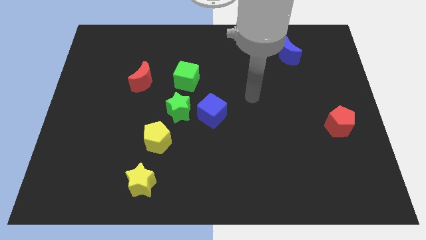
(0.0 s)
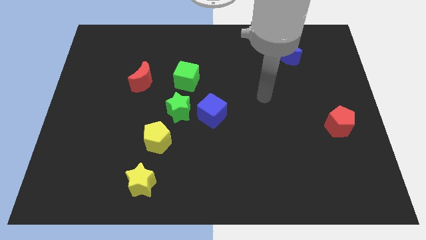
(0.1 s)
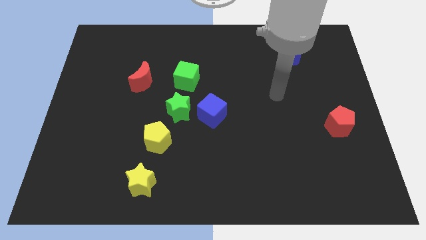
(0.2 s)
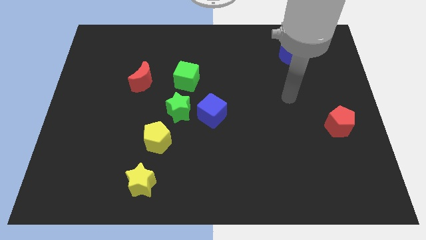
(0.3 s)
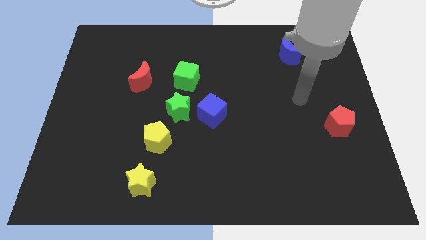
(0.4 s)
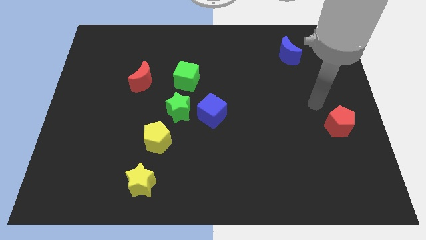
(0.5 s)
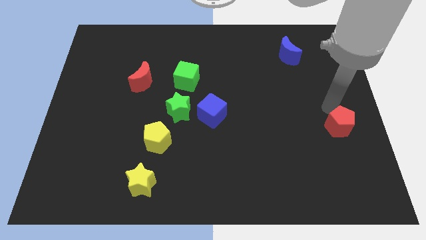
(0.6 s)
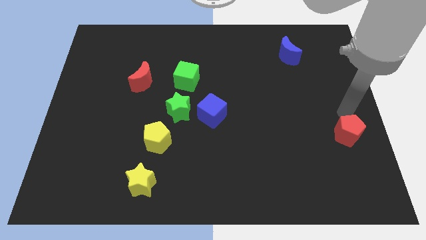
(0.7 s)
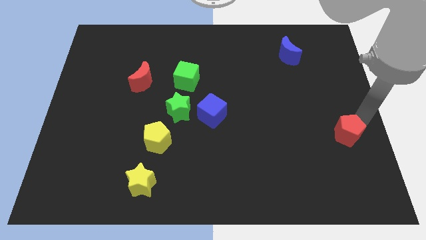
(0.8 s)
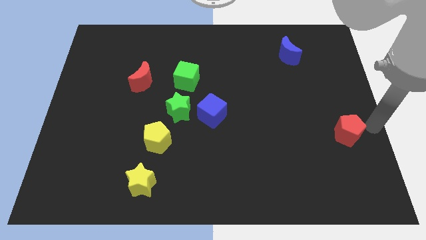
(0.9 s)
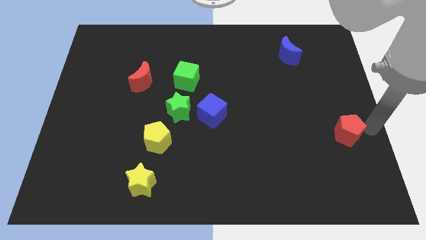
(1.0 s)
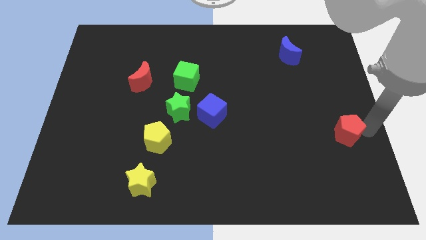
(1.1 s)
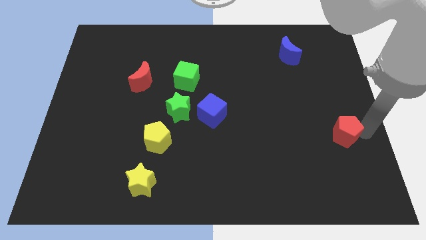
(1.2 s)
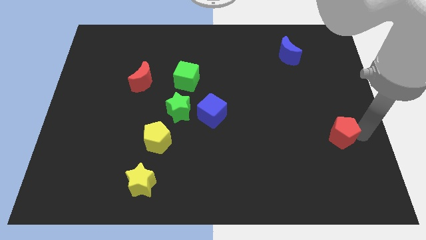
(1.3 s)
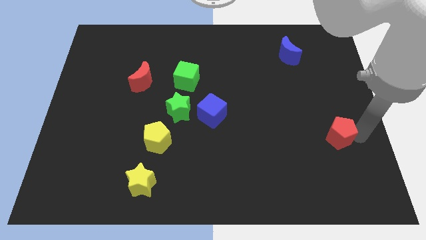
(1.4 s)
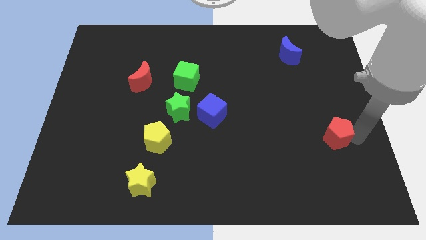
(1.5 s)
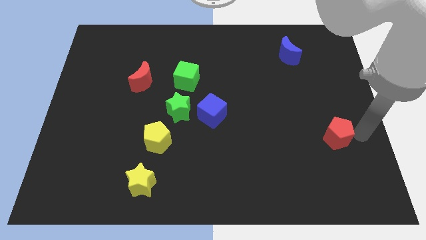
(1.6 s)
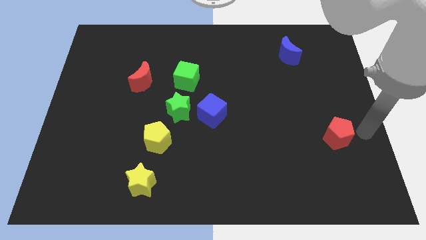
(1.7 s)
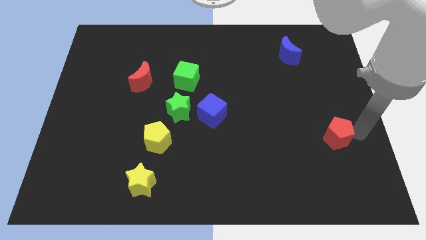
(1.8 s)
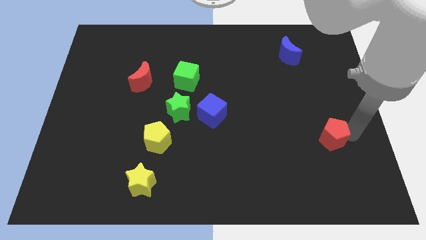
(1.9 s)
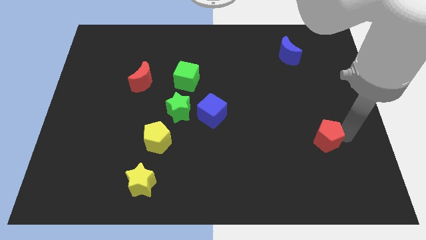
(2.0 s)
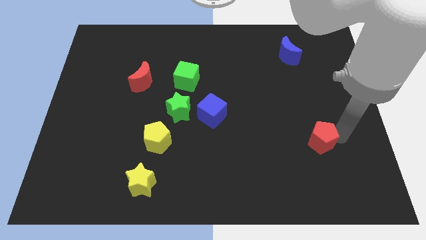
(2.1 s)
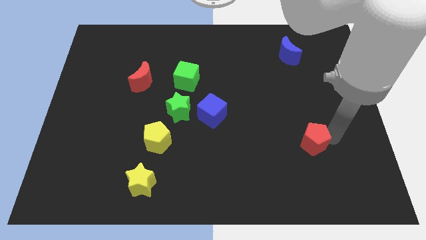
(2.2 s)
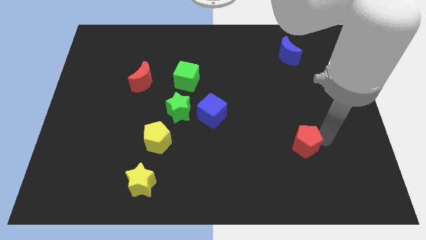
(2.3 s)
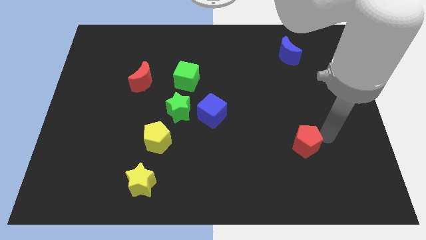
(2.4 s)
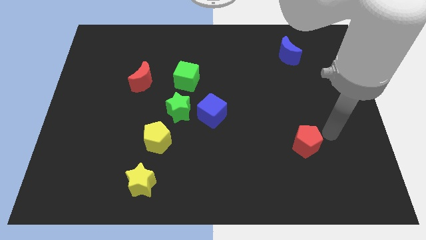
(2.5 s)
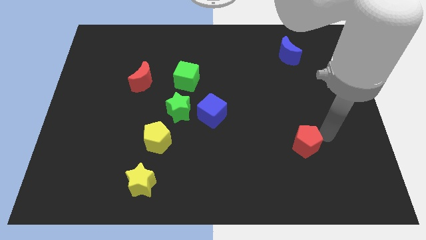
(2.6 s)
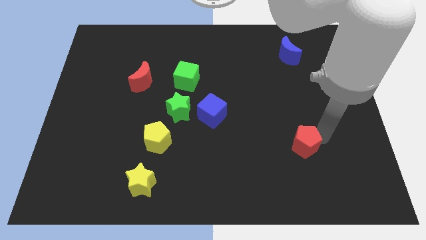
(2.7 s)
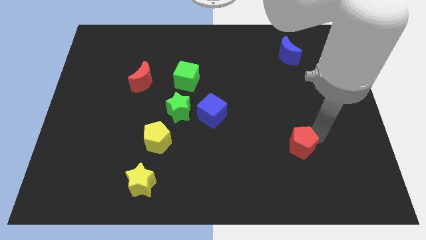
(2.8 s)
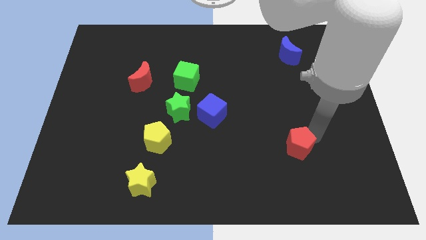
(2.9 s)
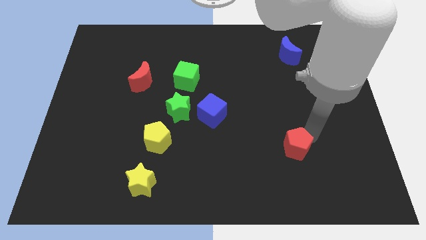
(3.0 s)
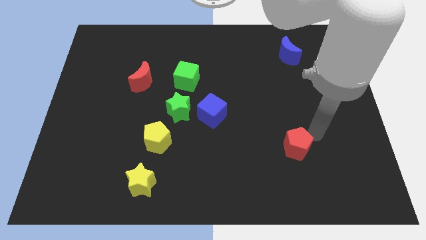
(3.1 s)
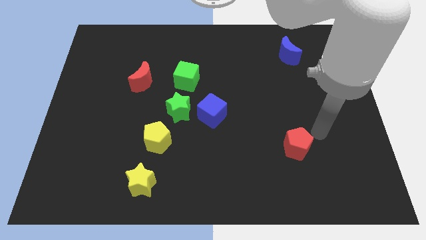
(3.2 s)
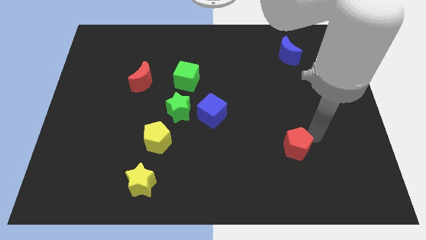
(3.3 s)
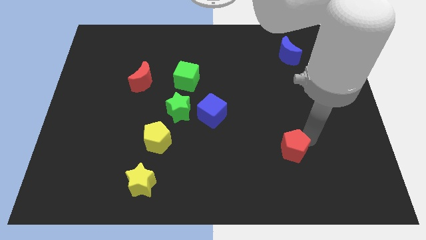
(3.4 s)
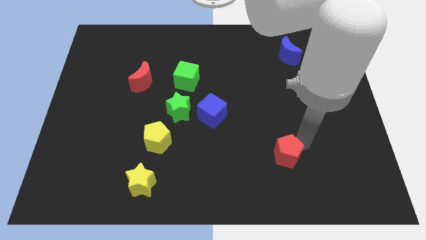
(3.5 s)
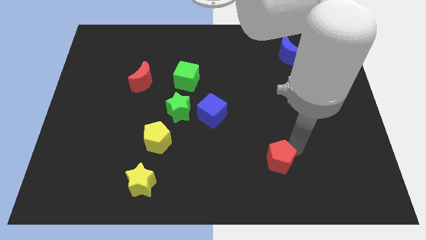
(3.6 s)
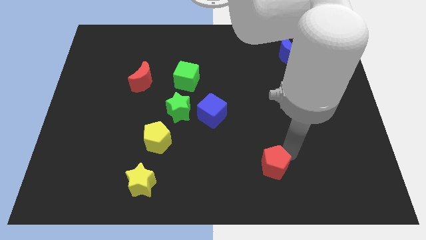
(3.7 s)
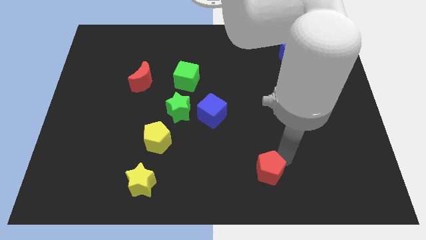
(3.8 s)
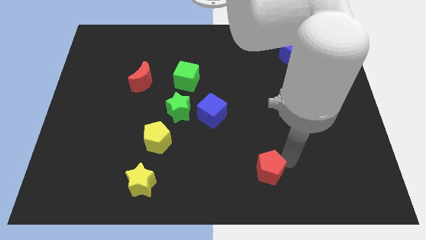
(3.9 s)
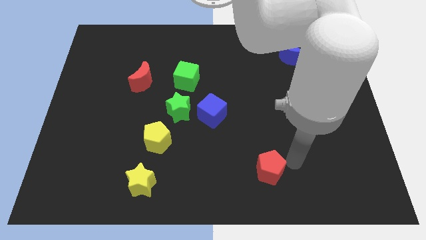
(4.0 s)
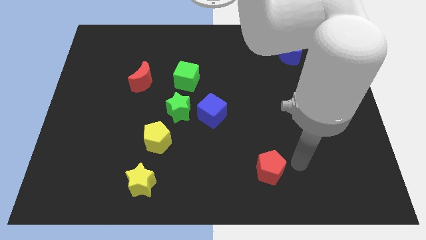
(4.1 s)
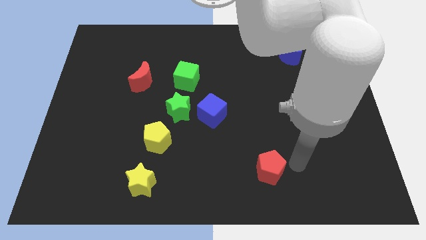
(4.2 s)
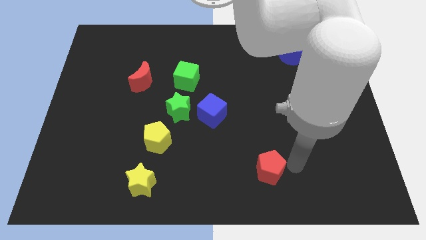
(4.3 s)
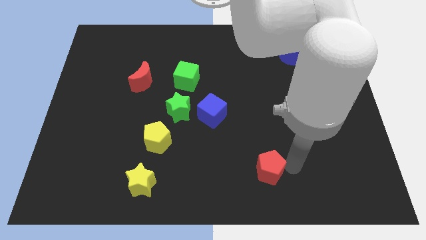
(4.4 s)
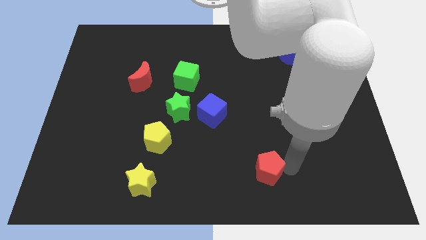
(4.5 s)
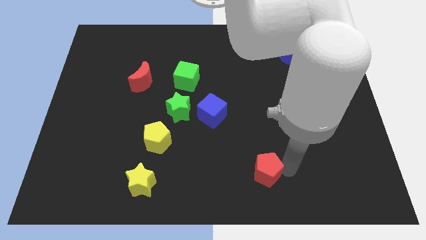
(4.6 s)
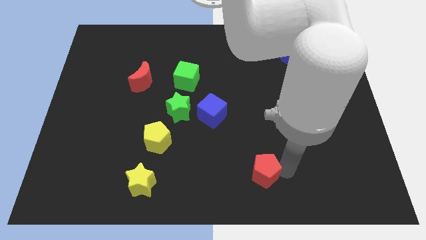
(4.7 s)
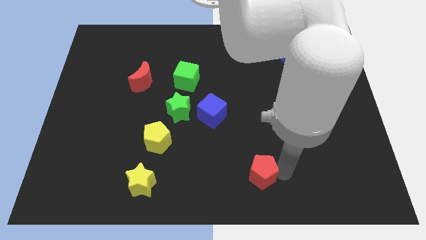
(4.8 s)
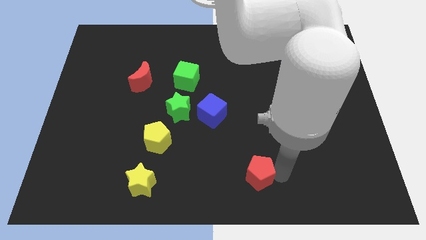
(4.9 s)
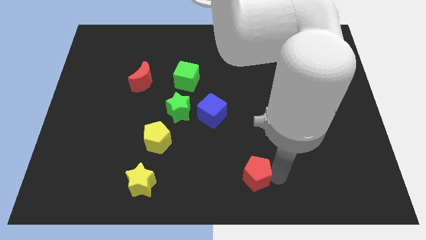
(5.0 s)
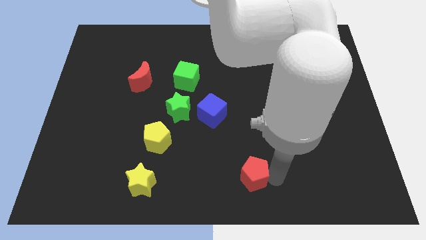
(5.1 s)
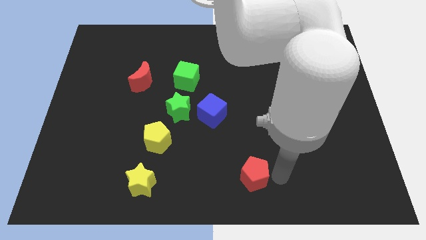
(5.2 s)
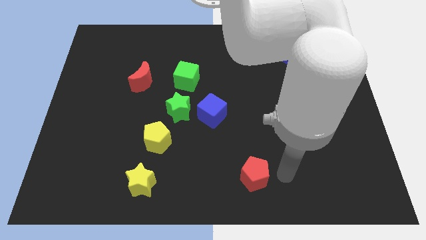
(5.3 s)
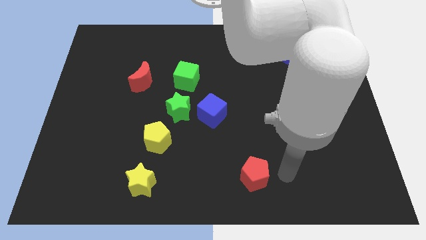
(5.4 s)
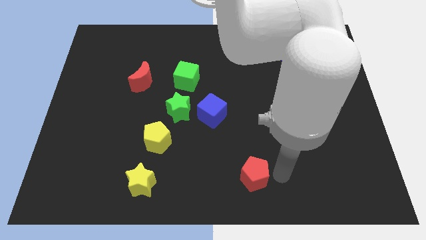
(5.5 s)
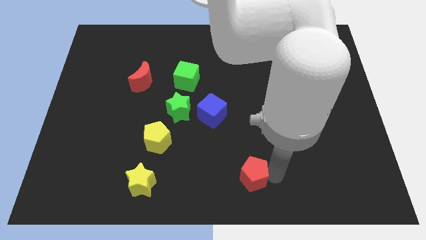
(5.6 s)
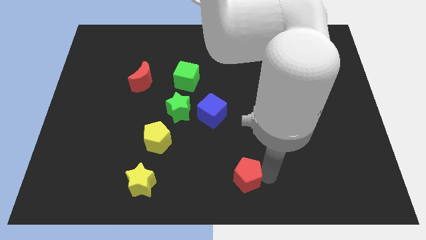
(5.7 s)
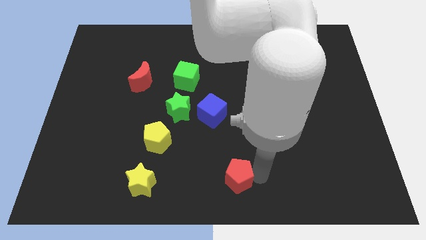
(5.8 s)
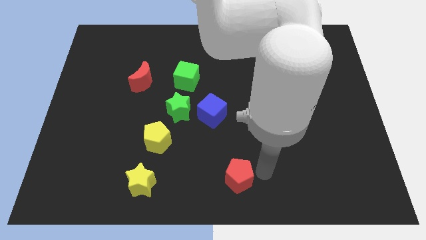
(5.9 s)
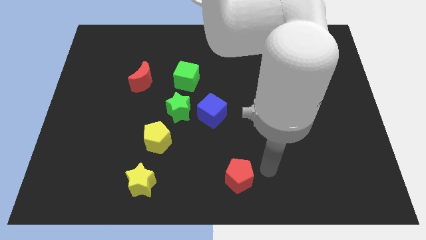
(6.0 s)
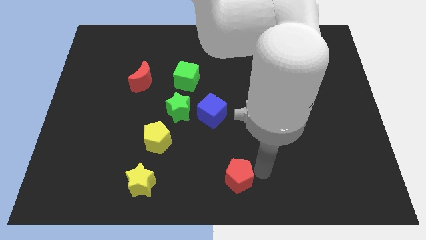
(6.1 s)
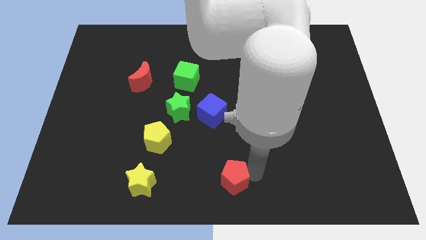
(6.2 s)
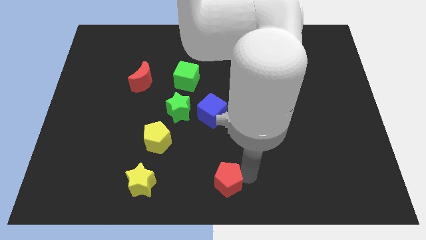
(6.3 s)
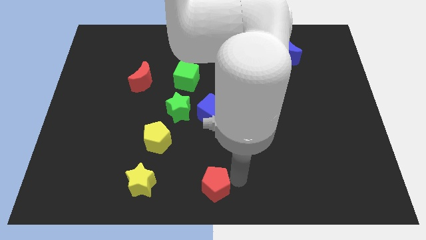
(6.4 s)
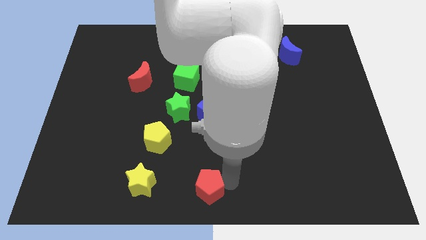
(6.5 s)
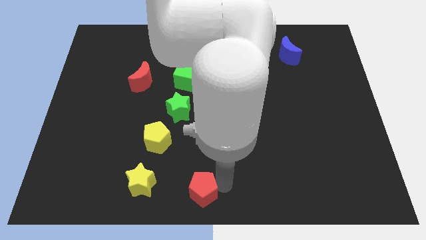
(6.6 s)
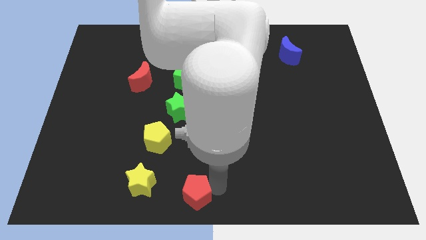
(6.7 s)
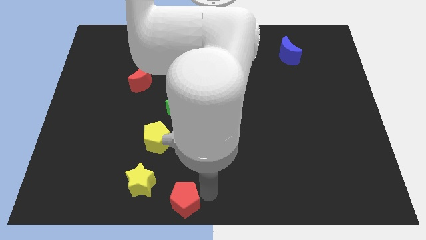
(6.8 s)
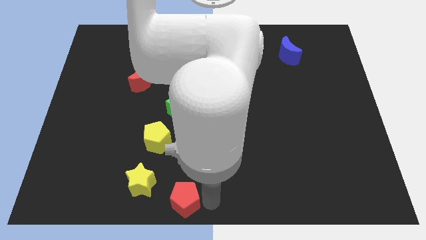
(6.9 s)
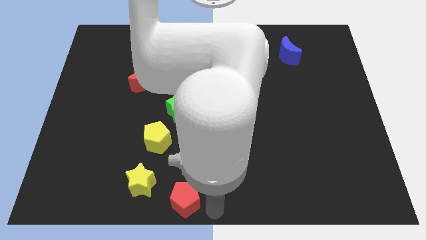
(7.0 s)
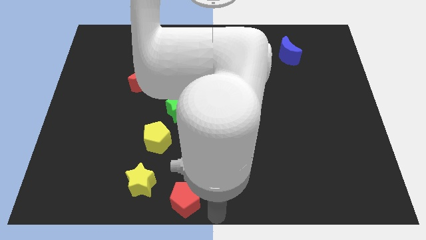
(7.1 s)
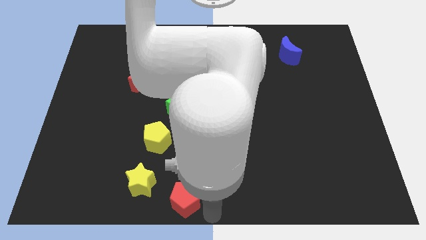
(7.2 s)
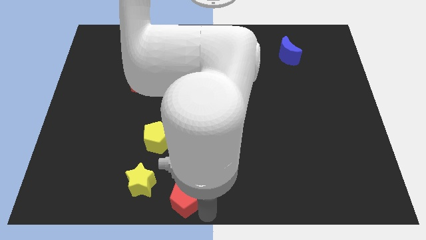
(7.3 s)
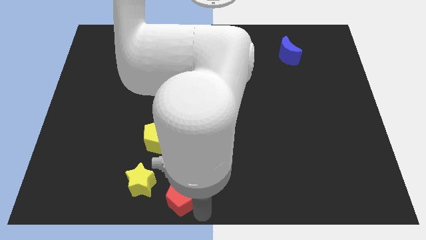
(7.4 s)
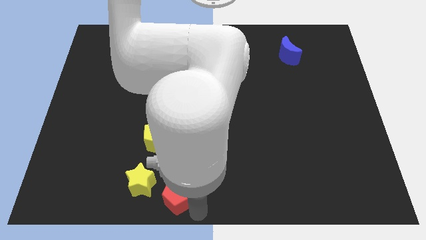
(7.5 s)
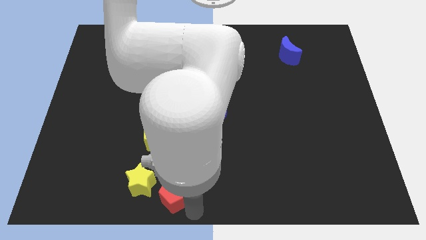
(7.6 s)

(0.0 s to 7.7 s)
put the red pentagon to the bottom side of the yellow pentagon
